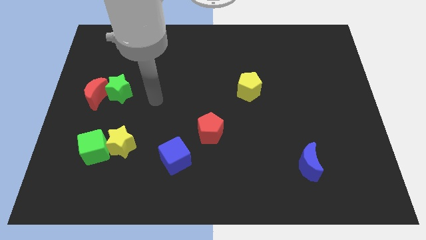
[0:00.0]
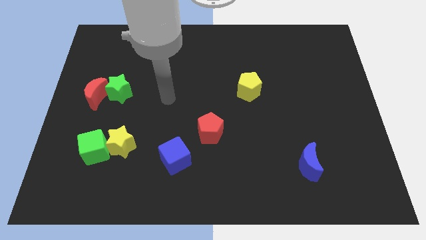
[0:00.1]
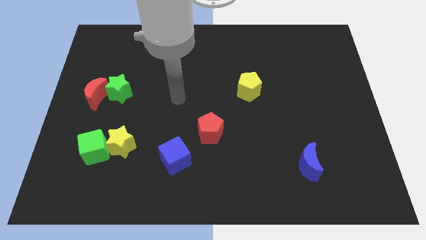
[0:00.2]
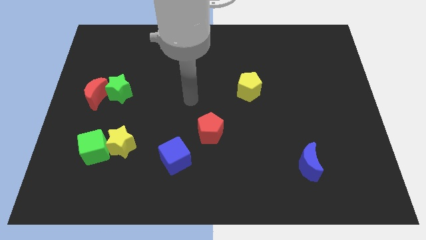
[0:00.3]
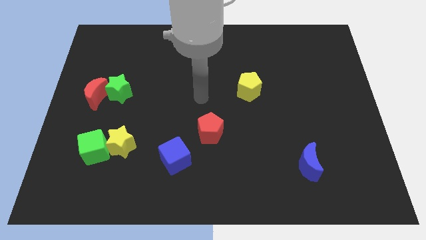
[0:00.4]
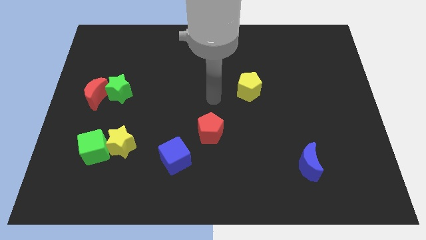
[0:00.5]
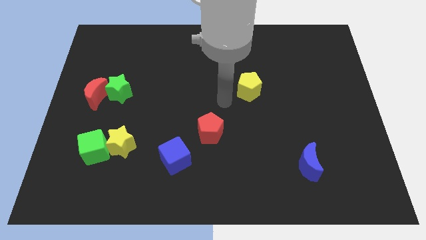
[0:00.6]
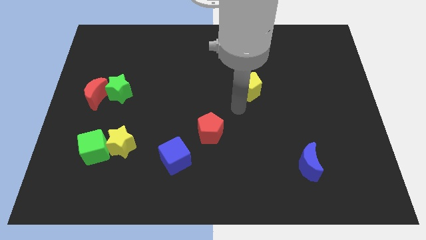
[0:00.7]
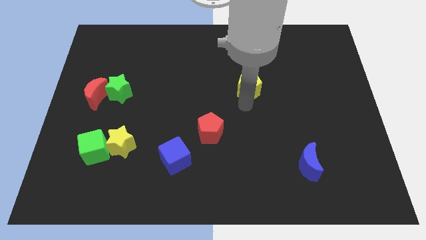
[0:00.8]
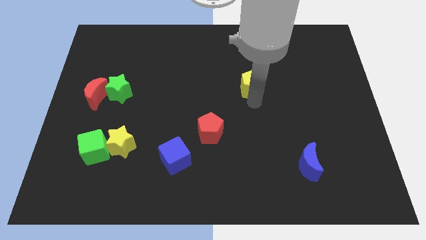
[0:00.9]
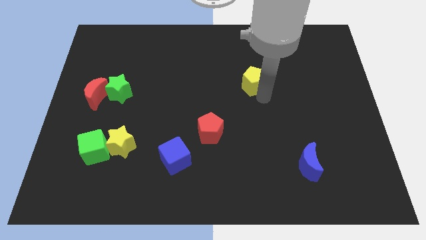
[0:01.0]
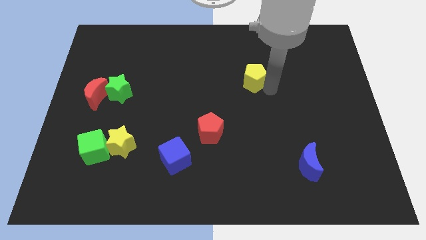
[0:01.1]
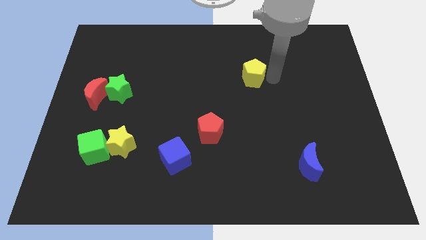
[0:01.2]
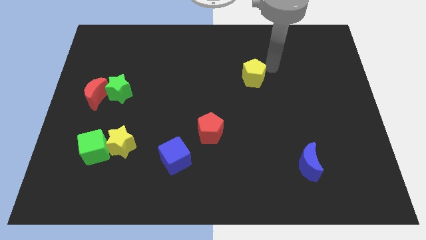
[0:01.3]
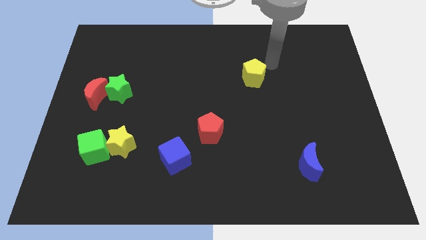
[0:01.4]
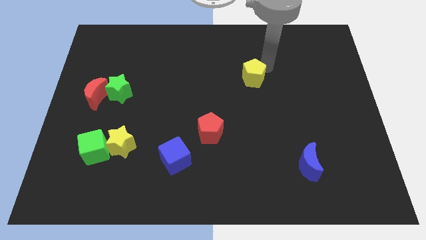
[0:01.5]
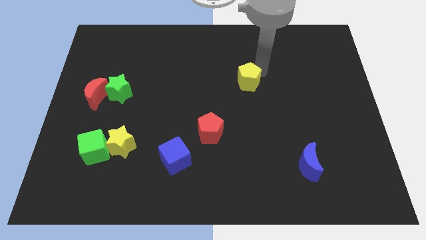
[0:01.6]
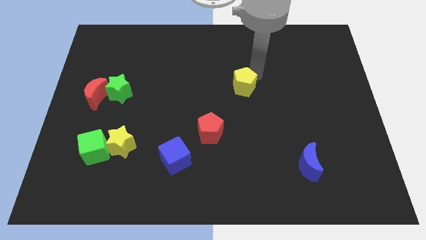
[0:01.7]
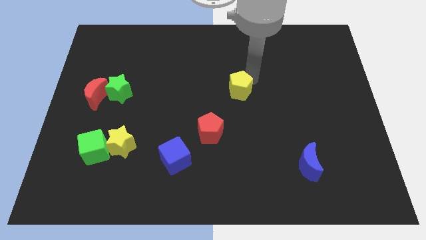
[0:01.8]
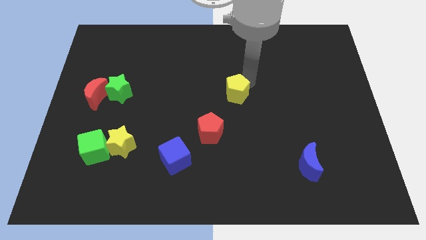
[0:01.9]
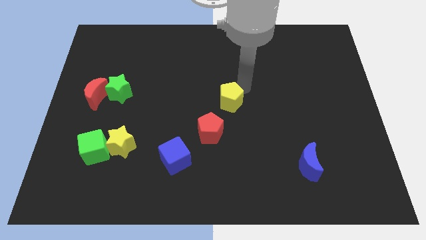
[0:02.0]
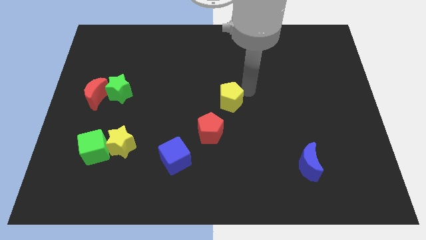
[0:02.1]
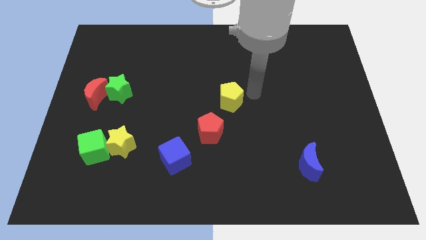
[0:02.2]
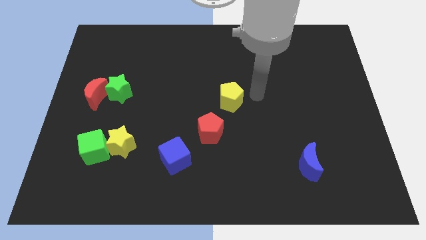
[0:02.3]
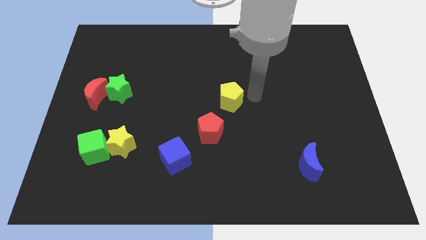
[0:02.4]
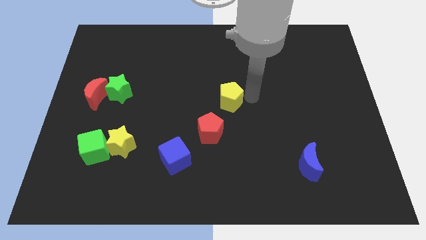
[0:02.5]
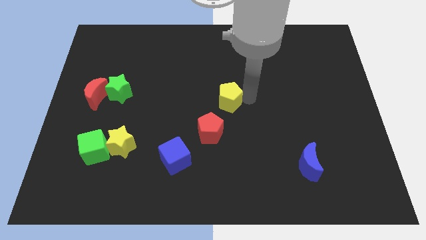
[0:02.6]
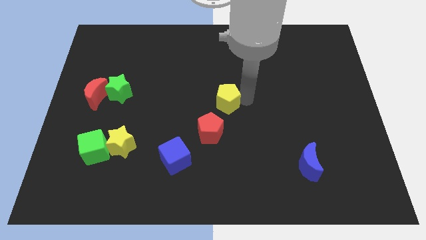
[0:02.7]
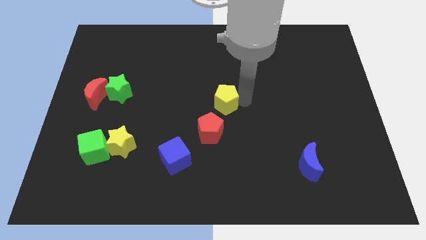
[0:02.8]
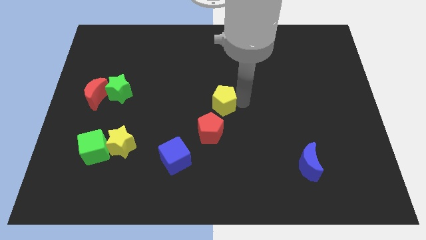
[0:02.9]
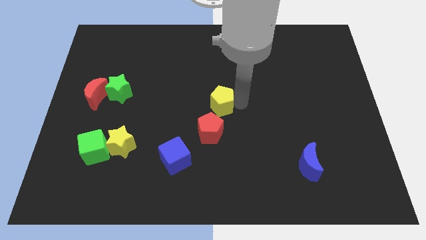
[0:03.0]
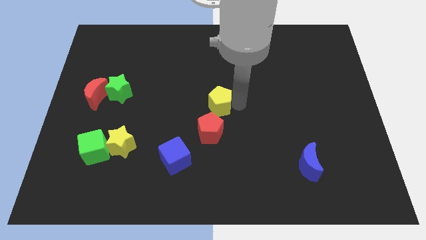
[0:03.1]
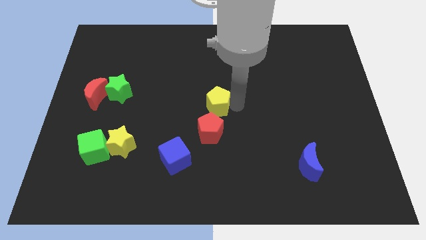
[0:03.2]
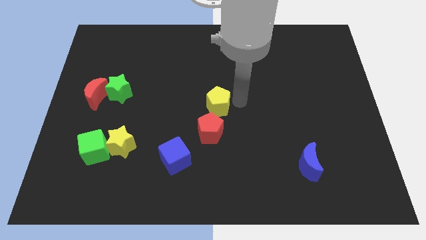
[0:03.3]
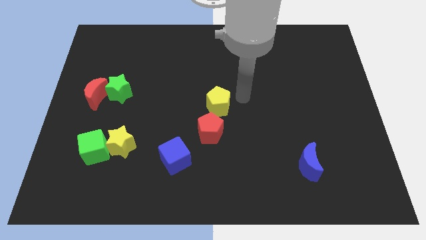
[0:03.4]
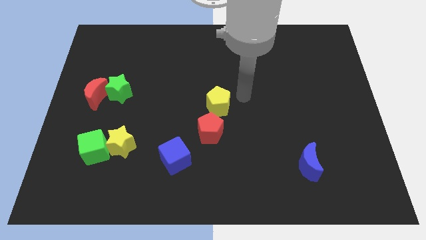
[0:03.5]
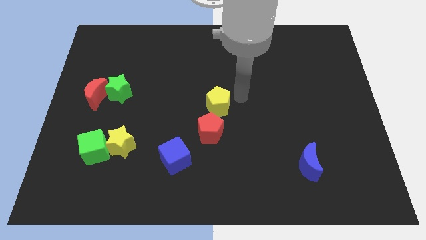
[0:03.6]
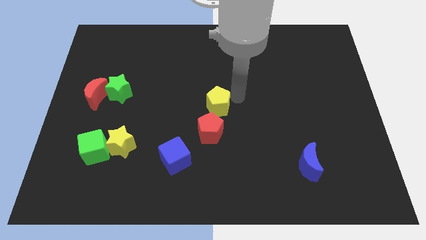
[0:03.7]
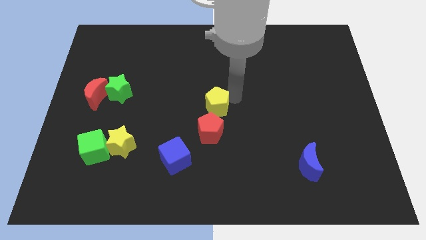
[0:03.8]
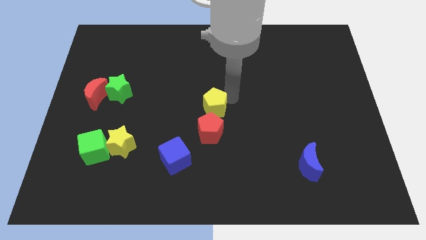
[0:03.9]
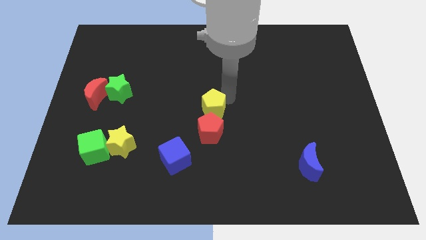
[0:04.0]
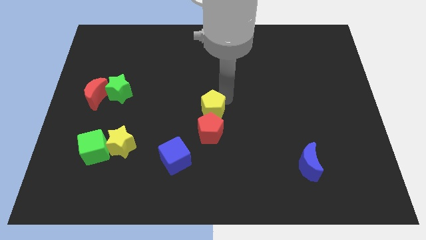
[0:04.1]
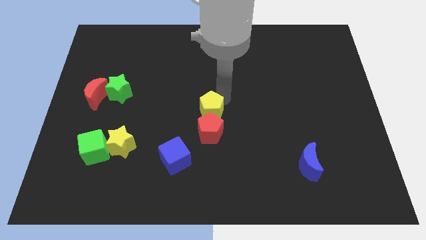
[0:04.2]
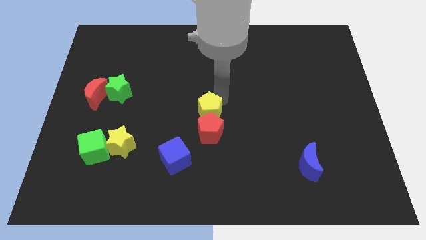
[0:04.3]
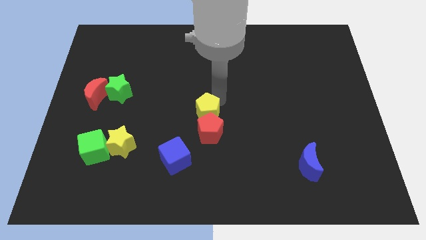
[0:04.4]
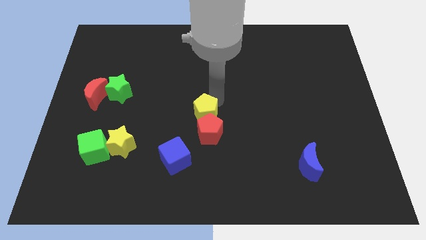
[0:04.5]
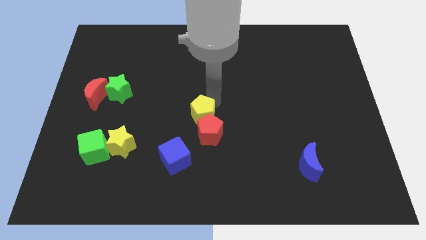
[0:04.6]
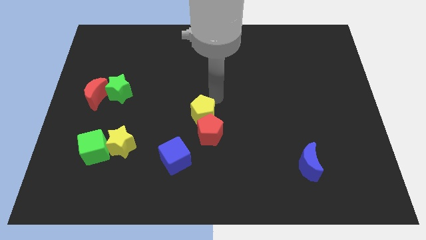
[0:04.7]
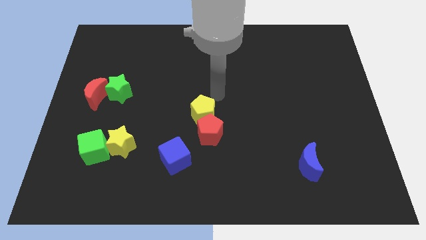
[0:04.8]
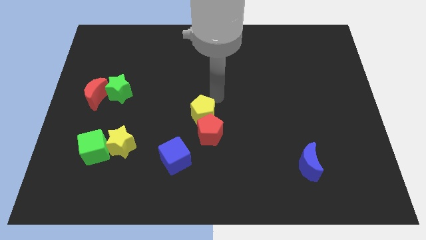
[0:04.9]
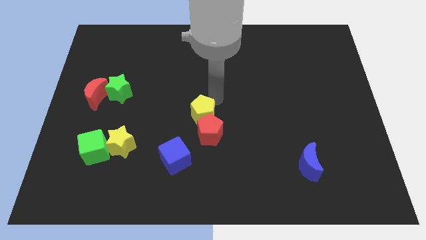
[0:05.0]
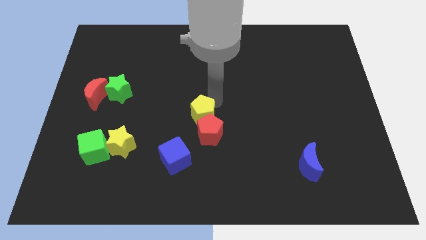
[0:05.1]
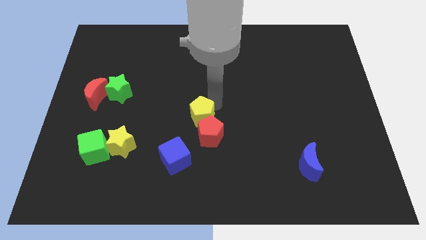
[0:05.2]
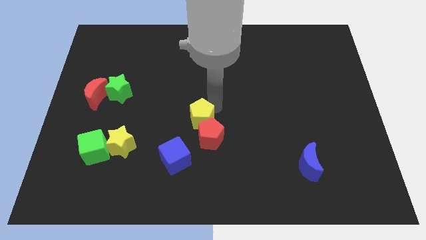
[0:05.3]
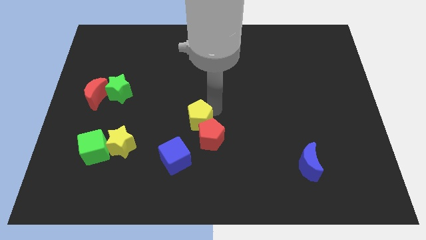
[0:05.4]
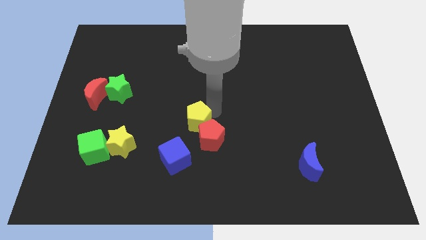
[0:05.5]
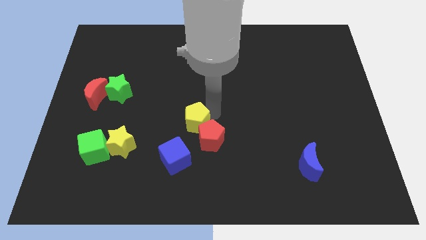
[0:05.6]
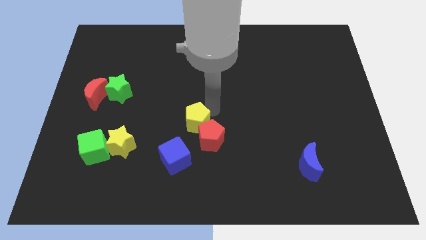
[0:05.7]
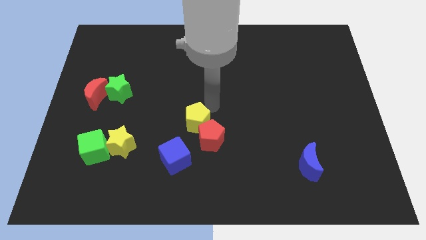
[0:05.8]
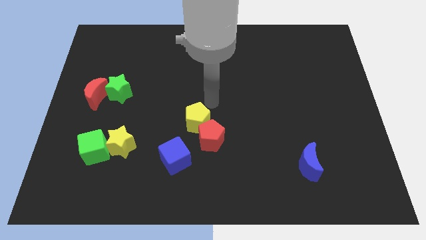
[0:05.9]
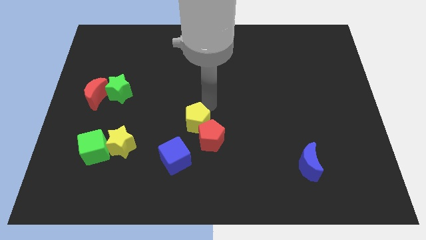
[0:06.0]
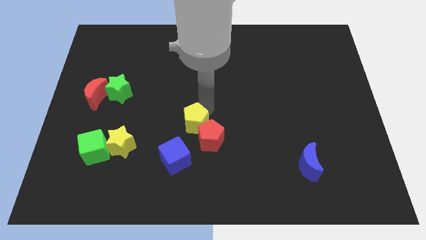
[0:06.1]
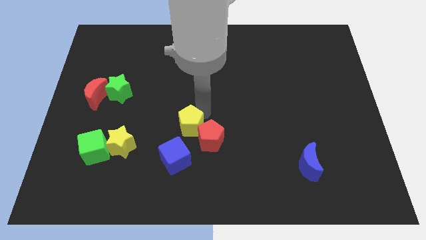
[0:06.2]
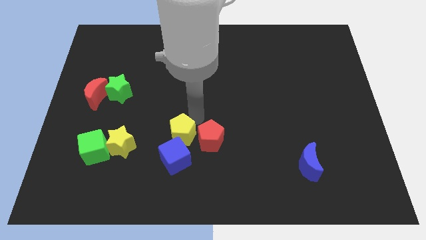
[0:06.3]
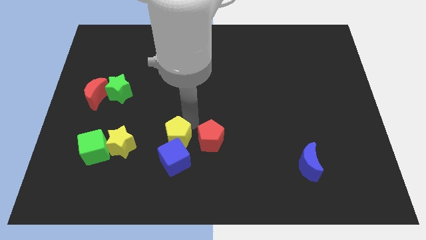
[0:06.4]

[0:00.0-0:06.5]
push the yellow pentagon close to the blue cube

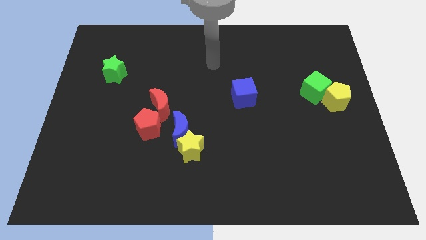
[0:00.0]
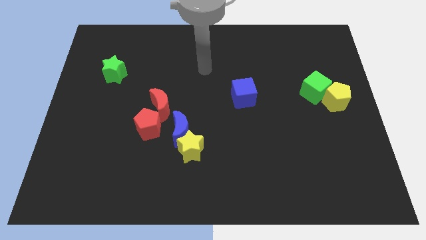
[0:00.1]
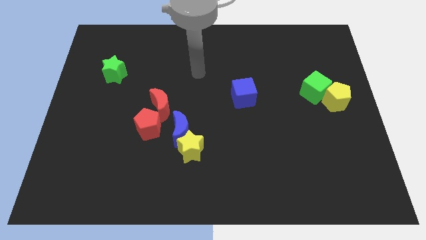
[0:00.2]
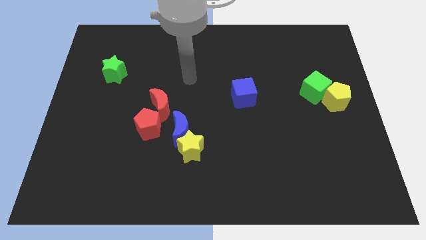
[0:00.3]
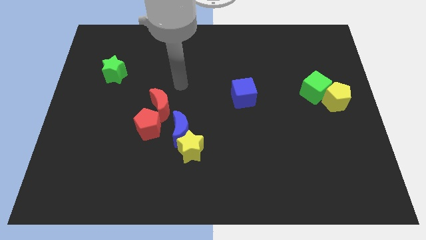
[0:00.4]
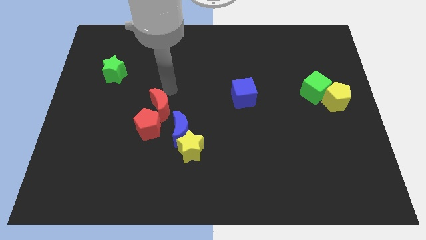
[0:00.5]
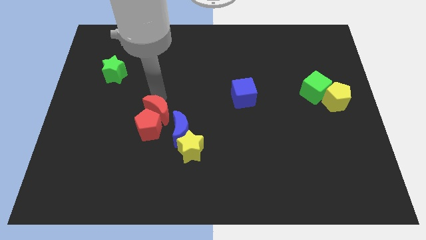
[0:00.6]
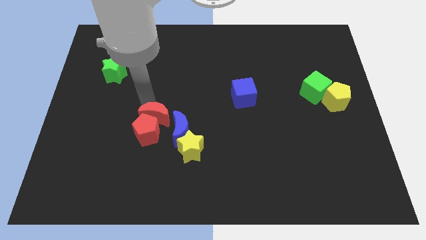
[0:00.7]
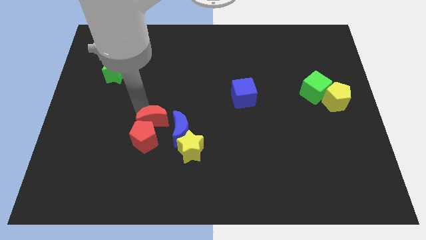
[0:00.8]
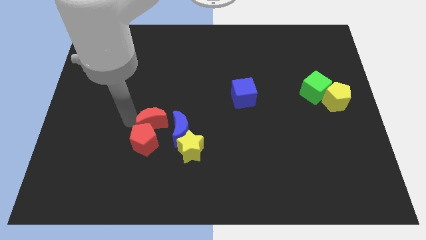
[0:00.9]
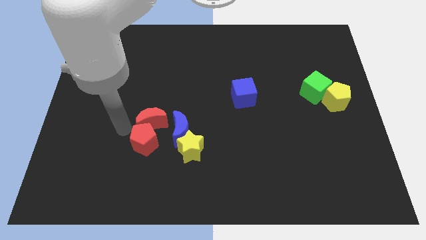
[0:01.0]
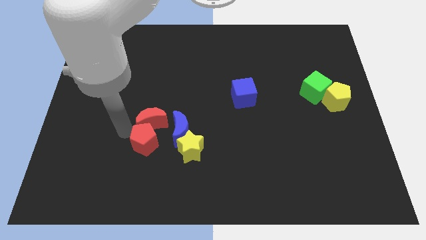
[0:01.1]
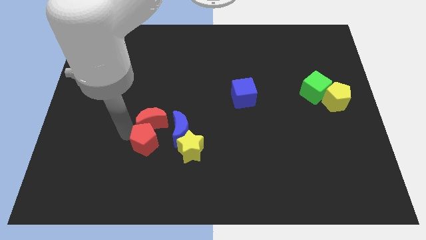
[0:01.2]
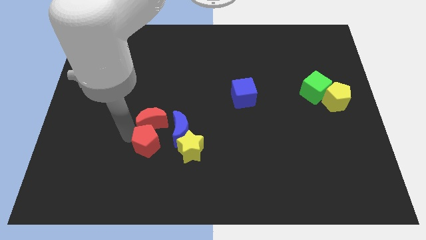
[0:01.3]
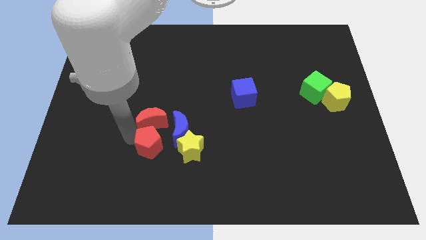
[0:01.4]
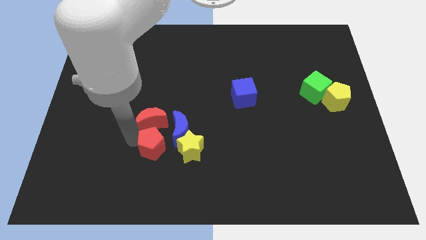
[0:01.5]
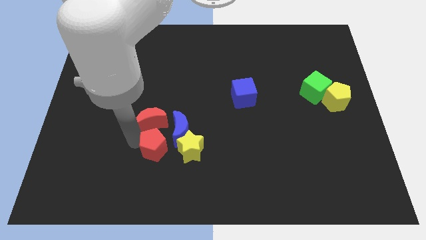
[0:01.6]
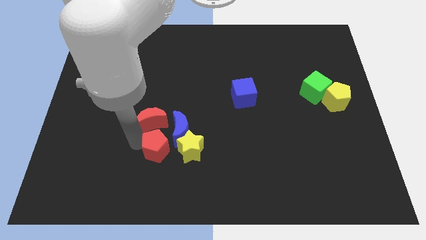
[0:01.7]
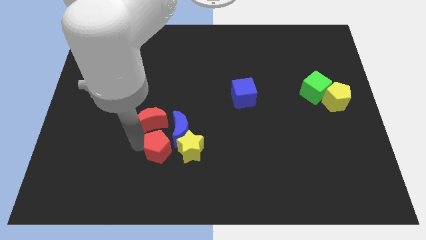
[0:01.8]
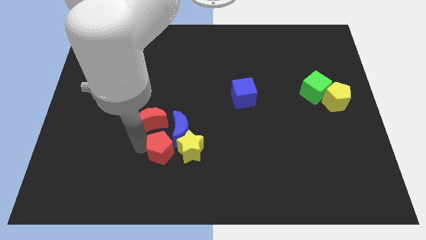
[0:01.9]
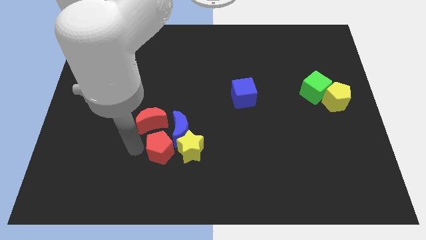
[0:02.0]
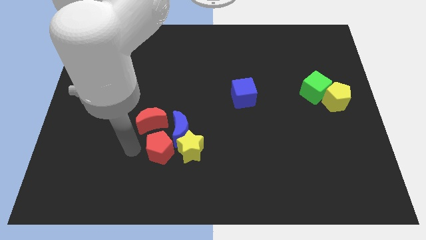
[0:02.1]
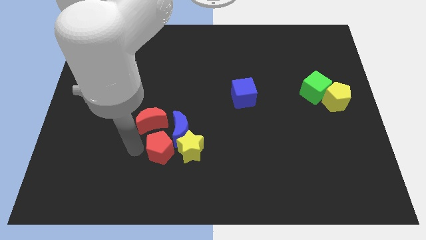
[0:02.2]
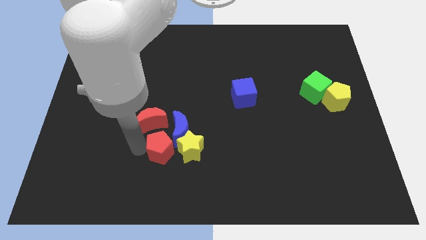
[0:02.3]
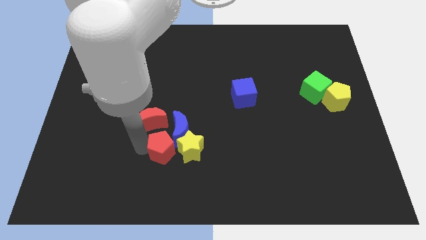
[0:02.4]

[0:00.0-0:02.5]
move the red pentagon next to the yellow star
